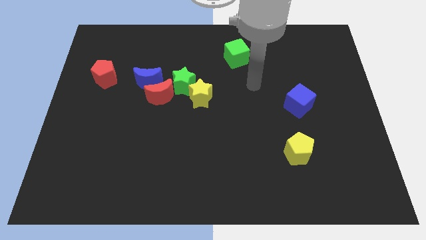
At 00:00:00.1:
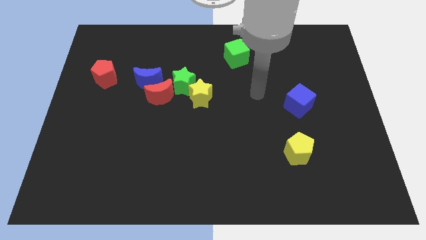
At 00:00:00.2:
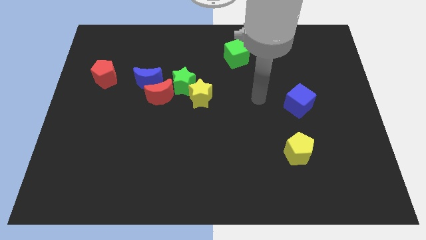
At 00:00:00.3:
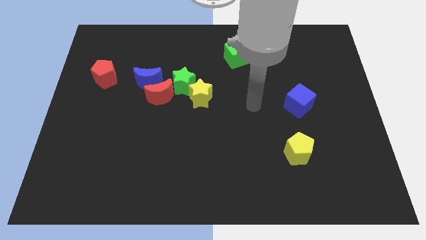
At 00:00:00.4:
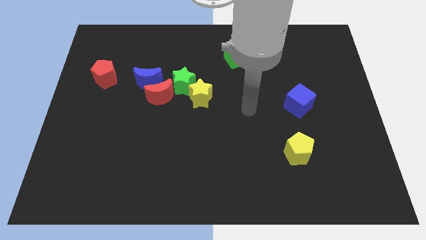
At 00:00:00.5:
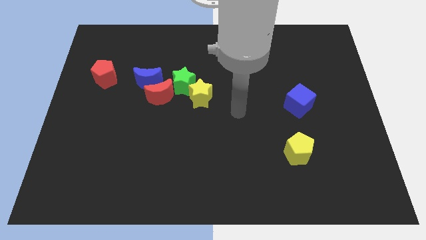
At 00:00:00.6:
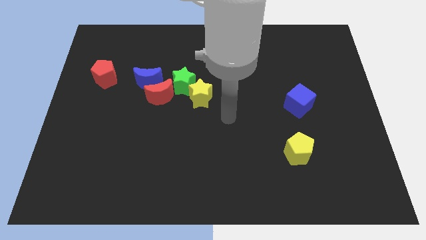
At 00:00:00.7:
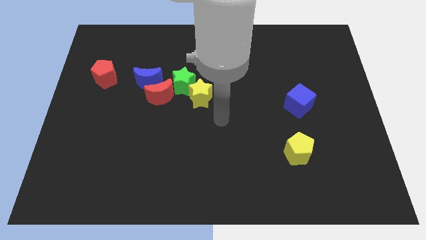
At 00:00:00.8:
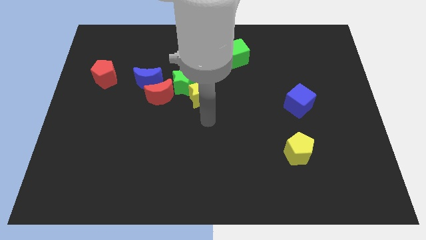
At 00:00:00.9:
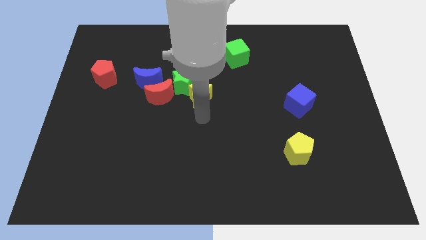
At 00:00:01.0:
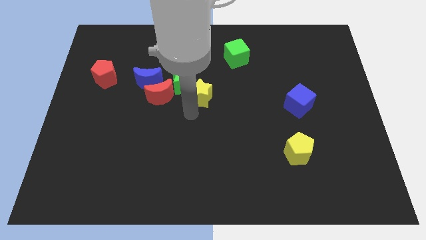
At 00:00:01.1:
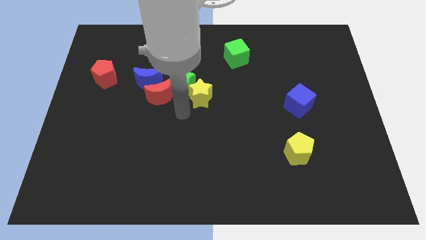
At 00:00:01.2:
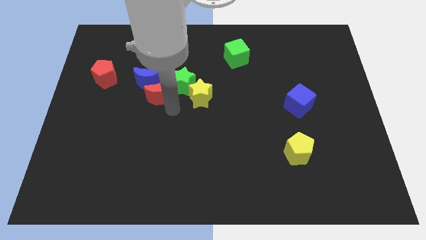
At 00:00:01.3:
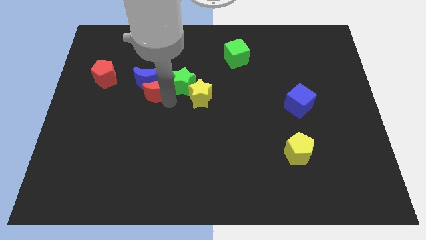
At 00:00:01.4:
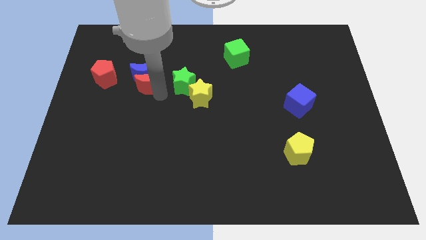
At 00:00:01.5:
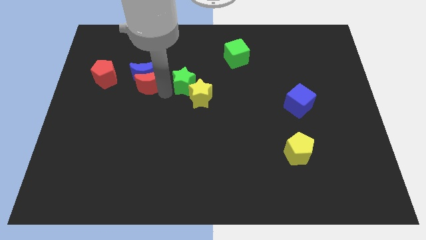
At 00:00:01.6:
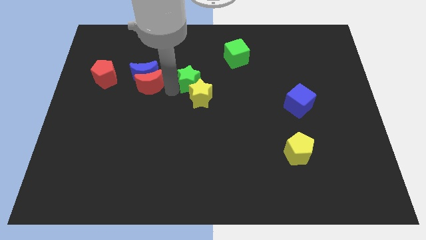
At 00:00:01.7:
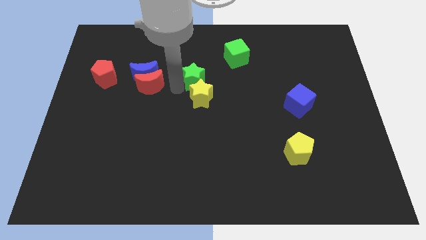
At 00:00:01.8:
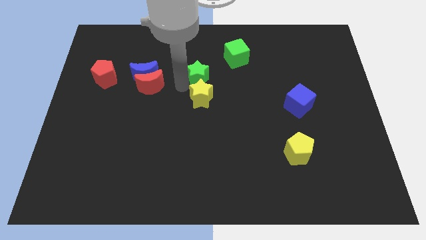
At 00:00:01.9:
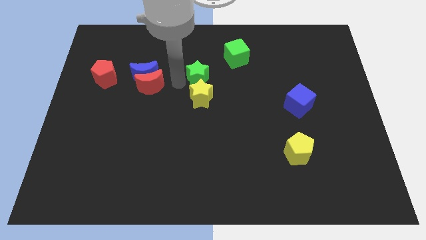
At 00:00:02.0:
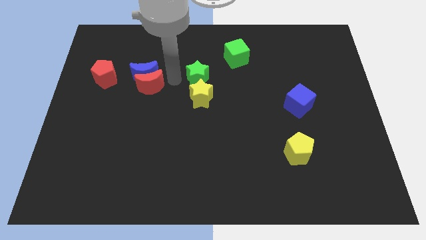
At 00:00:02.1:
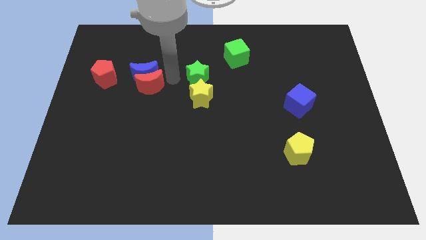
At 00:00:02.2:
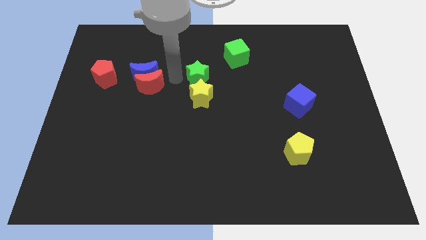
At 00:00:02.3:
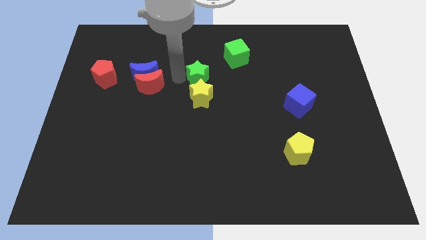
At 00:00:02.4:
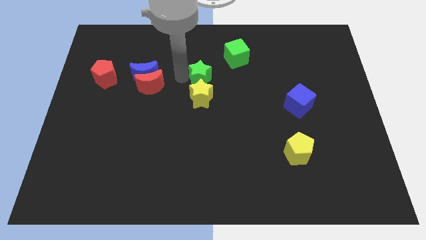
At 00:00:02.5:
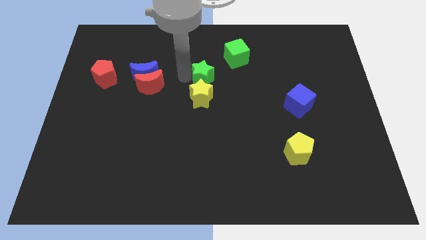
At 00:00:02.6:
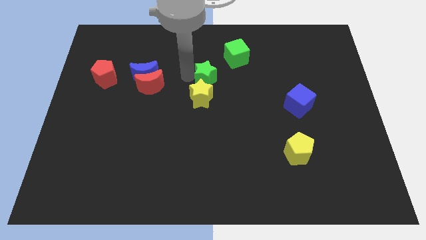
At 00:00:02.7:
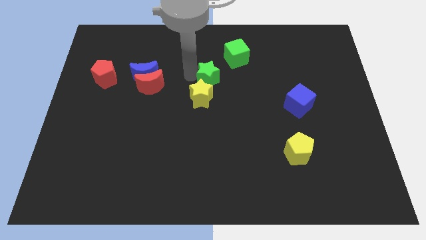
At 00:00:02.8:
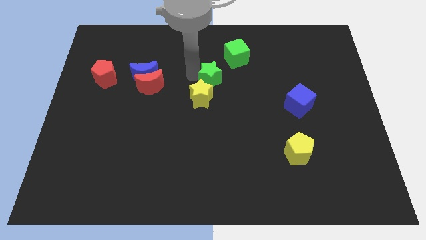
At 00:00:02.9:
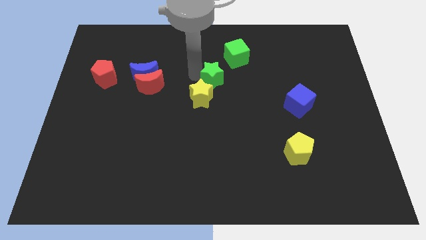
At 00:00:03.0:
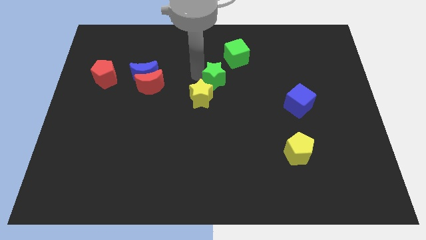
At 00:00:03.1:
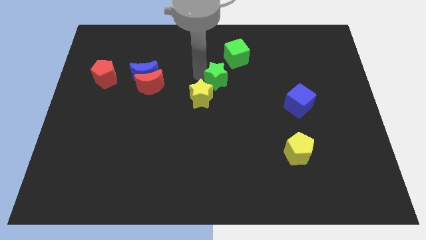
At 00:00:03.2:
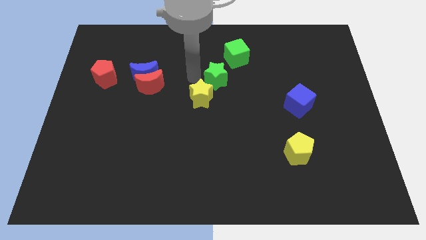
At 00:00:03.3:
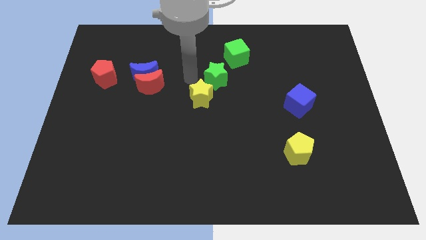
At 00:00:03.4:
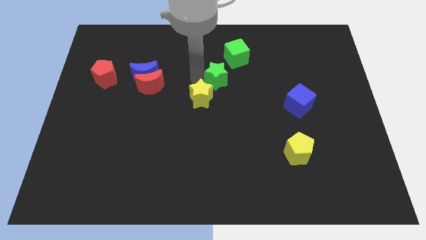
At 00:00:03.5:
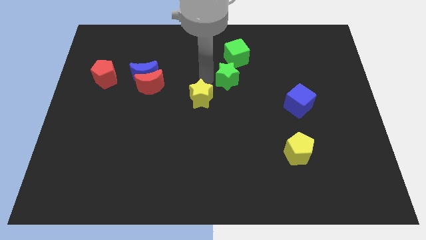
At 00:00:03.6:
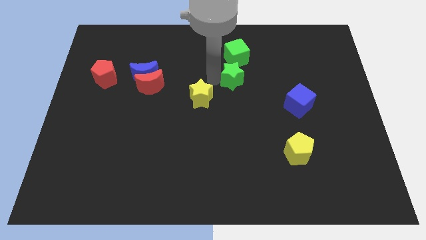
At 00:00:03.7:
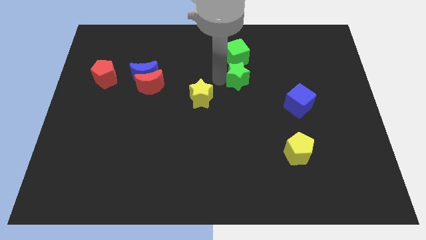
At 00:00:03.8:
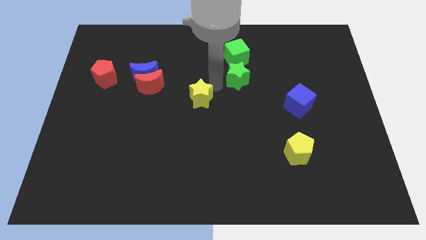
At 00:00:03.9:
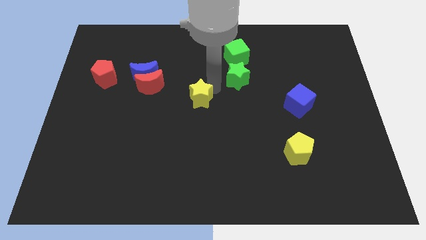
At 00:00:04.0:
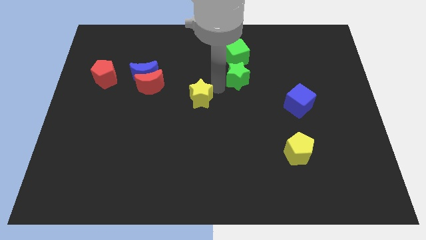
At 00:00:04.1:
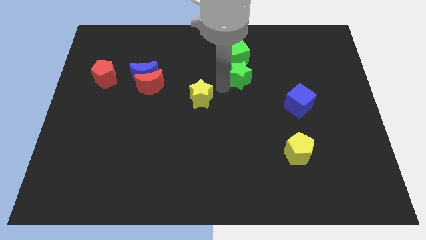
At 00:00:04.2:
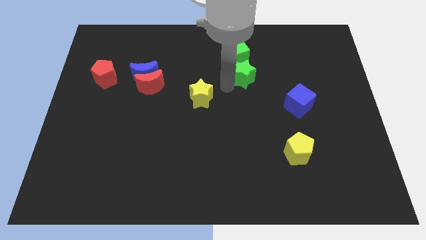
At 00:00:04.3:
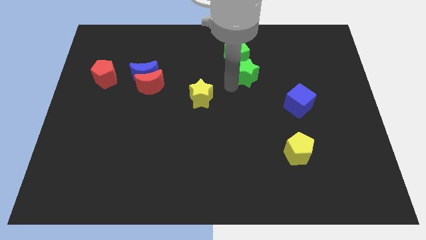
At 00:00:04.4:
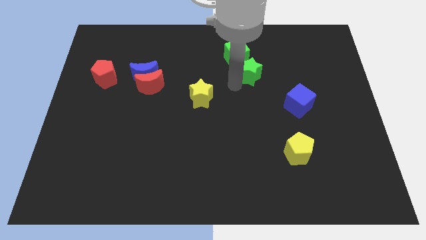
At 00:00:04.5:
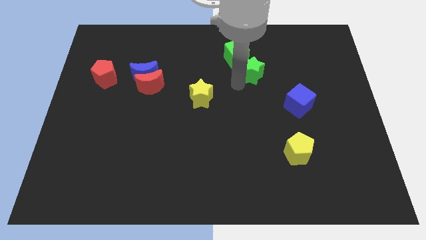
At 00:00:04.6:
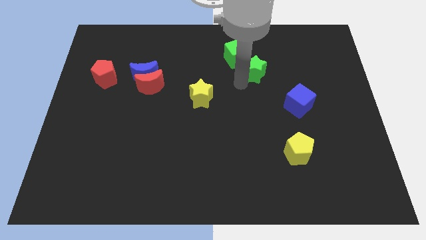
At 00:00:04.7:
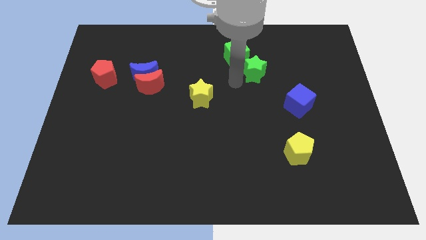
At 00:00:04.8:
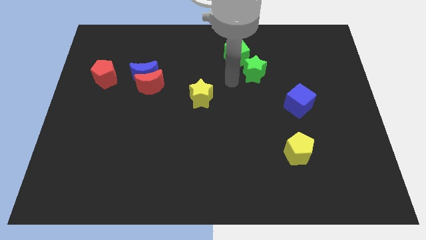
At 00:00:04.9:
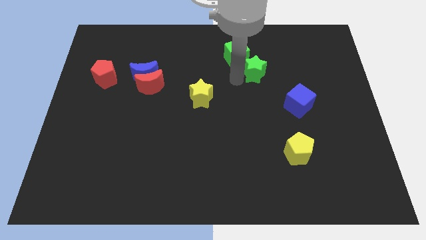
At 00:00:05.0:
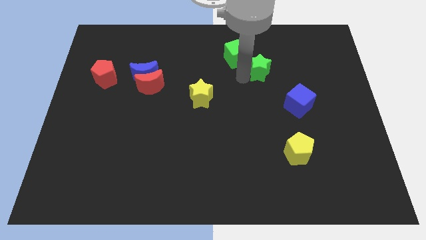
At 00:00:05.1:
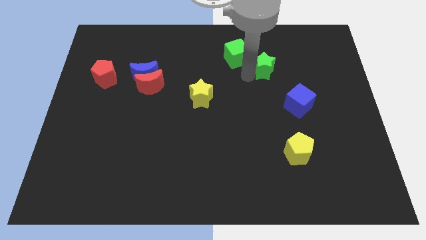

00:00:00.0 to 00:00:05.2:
push the green star just right of the green cube

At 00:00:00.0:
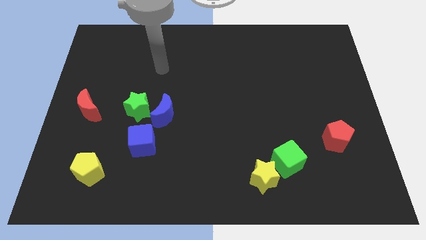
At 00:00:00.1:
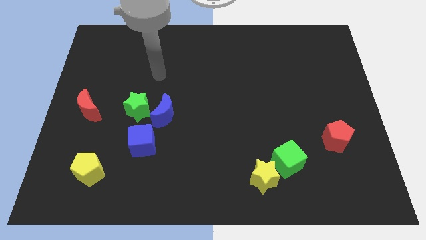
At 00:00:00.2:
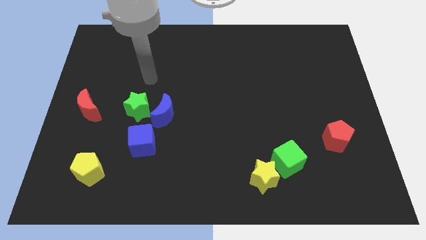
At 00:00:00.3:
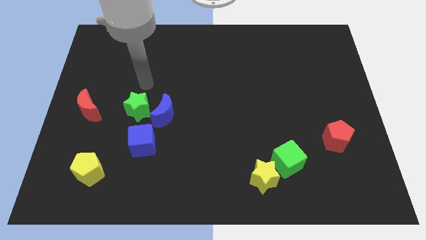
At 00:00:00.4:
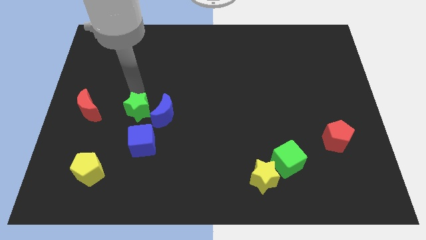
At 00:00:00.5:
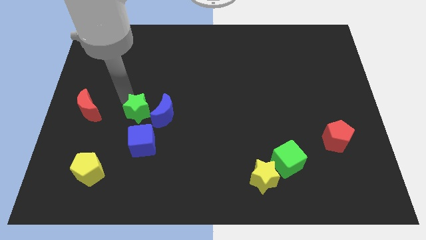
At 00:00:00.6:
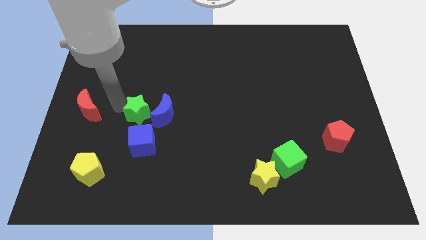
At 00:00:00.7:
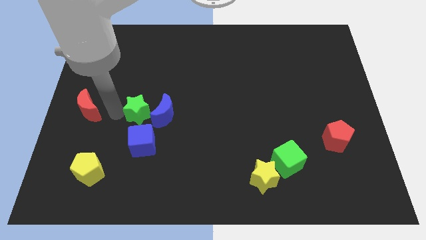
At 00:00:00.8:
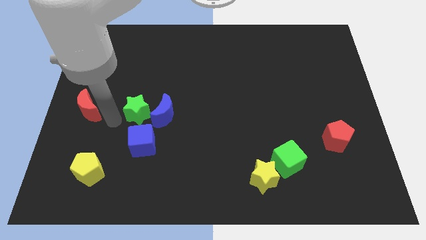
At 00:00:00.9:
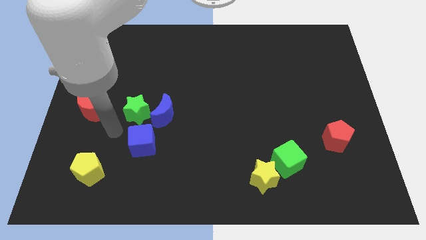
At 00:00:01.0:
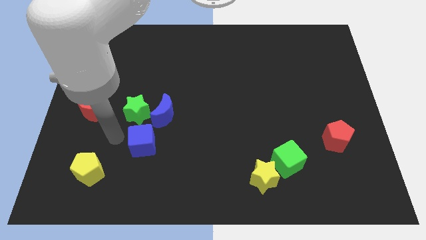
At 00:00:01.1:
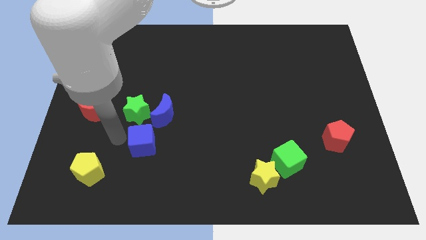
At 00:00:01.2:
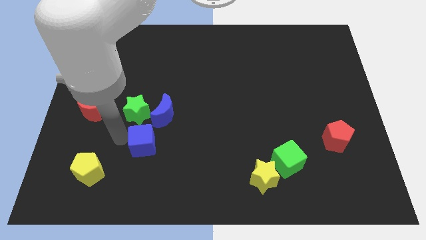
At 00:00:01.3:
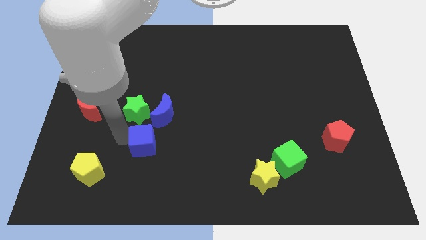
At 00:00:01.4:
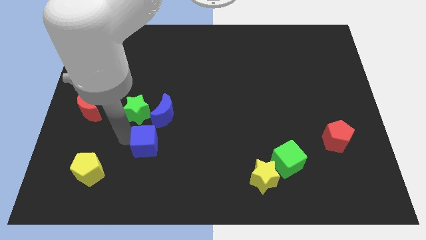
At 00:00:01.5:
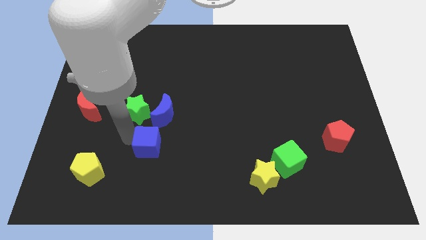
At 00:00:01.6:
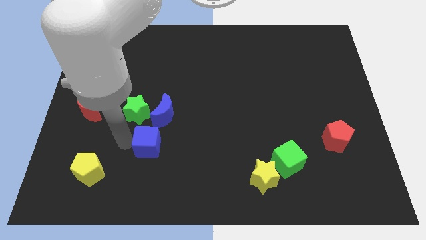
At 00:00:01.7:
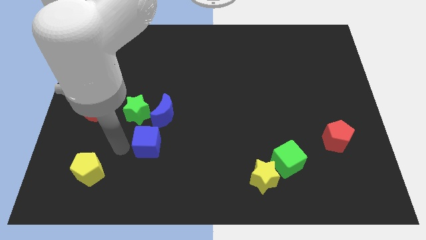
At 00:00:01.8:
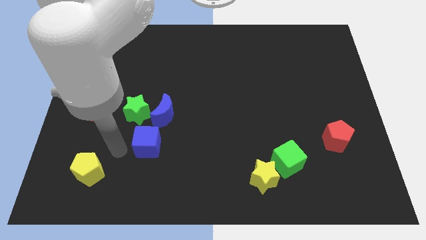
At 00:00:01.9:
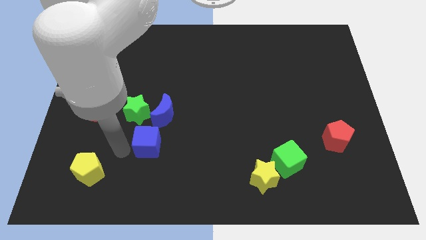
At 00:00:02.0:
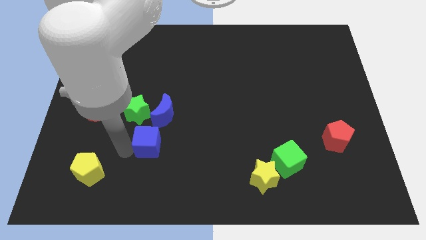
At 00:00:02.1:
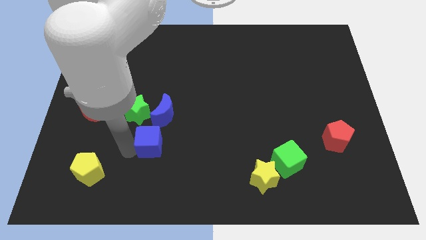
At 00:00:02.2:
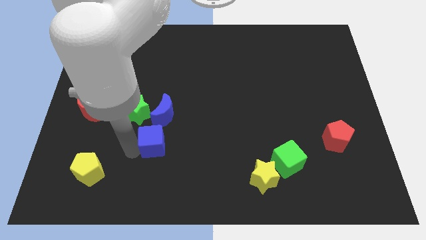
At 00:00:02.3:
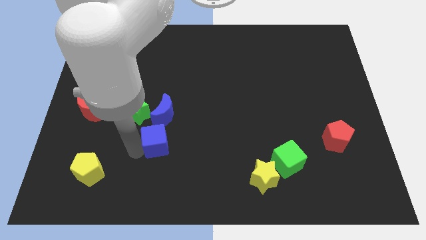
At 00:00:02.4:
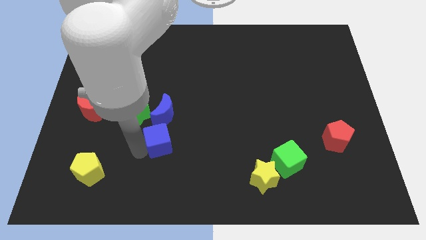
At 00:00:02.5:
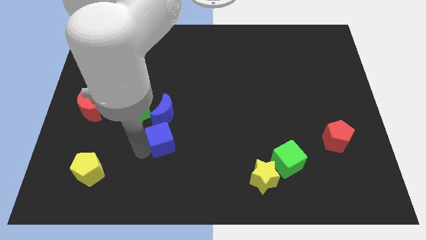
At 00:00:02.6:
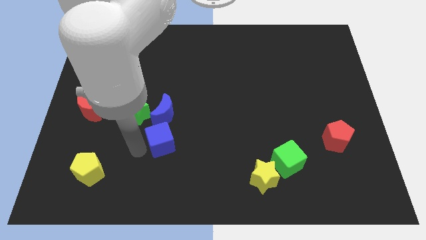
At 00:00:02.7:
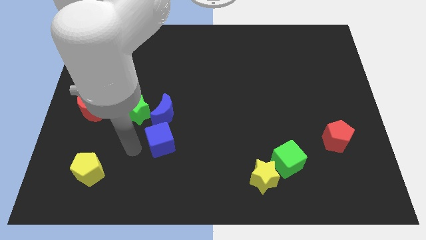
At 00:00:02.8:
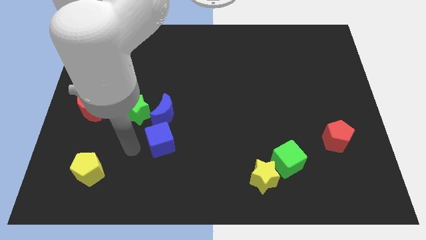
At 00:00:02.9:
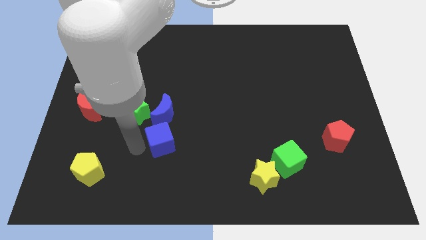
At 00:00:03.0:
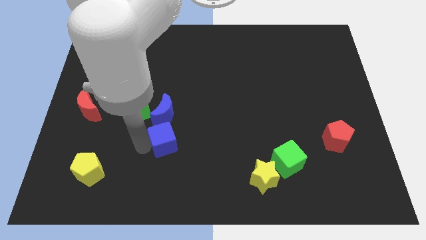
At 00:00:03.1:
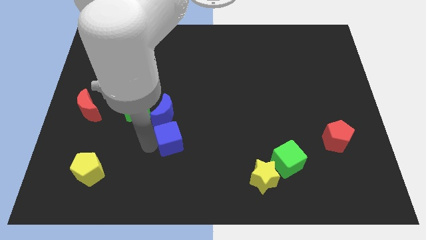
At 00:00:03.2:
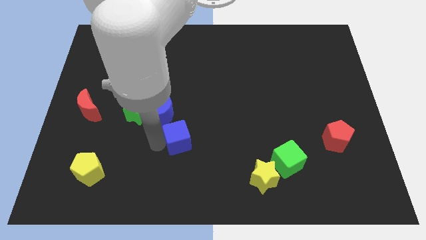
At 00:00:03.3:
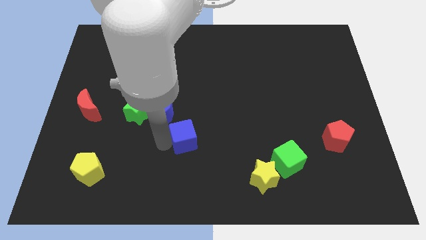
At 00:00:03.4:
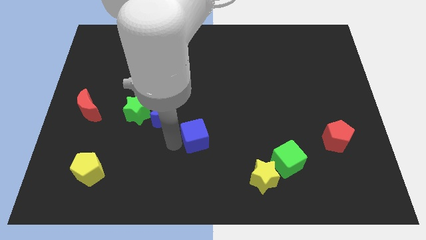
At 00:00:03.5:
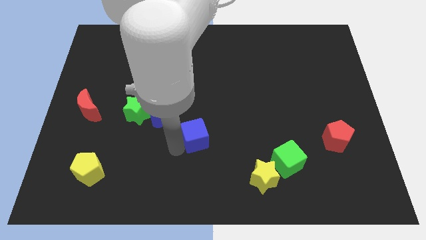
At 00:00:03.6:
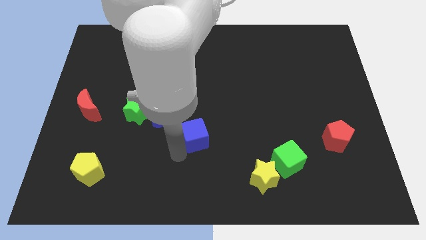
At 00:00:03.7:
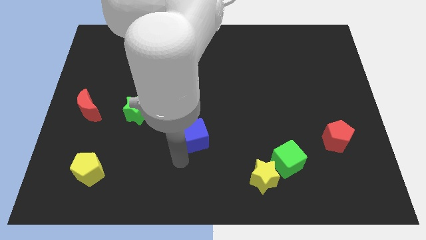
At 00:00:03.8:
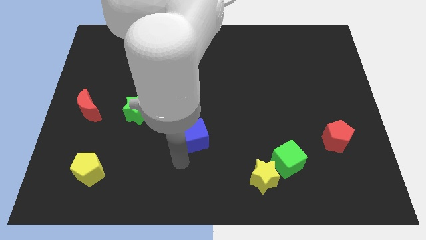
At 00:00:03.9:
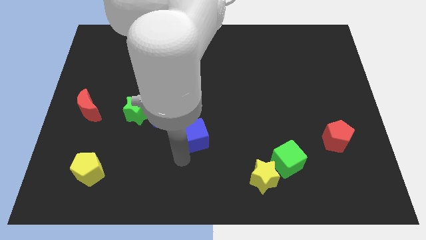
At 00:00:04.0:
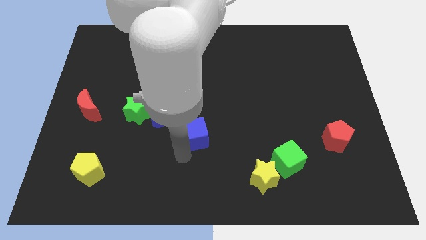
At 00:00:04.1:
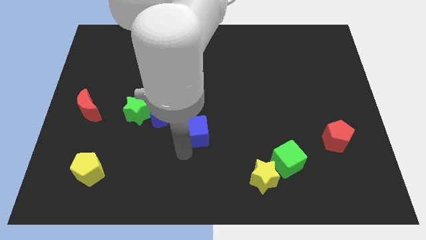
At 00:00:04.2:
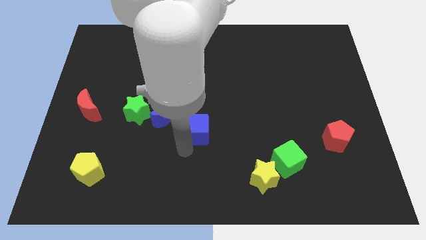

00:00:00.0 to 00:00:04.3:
move the blue cube just right of the blue moon
